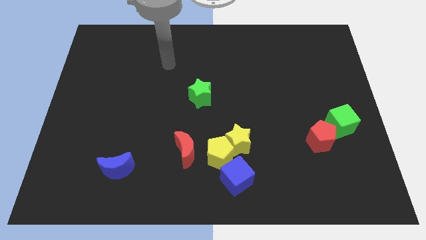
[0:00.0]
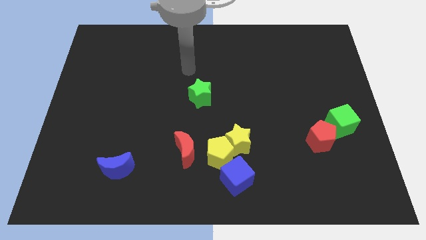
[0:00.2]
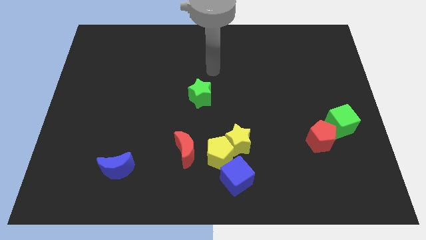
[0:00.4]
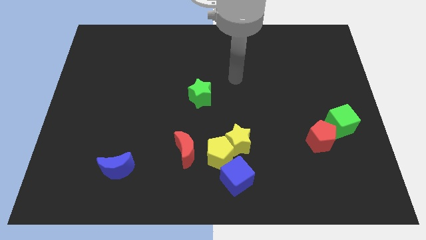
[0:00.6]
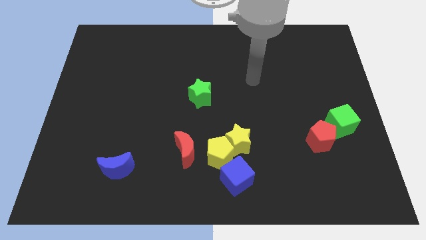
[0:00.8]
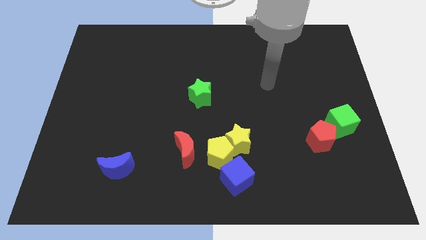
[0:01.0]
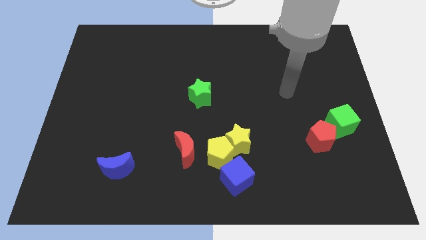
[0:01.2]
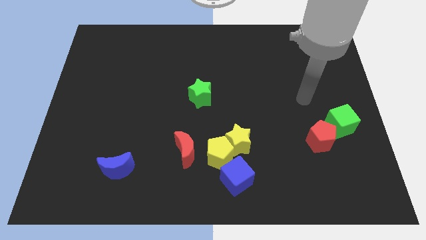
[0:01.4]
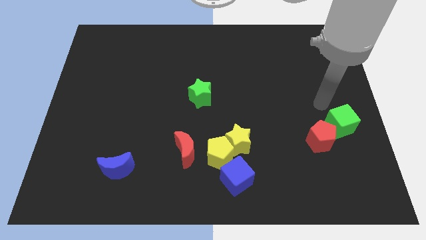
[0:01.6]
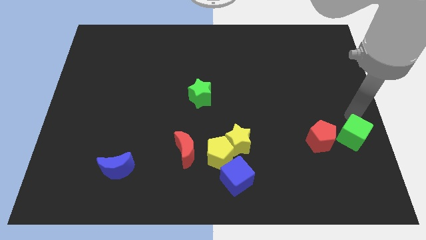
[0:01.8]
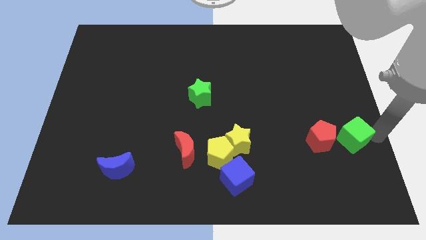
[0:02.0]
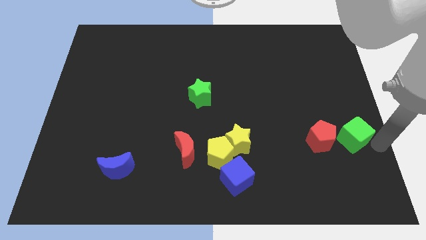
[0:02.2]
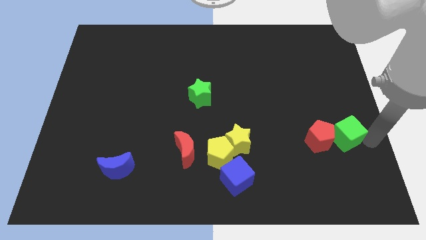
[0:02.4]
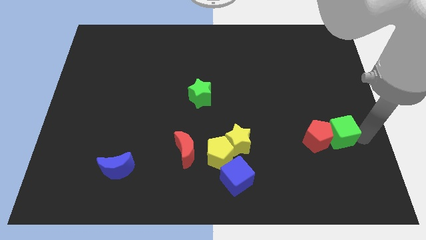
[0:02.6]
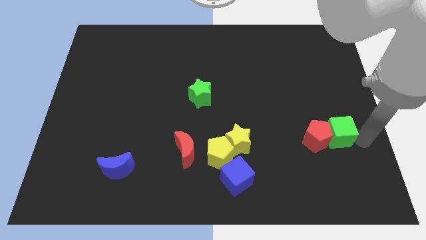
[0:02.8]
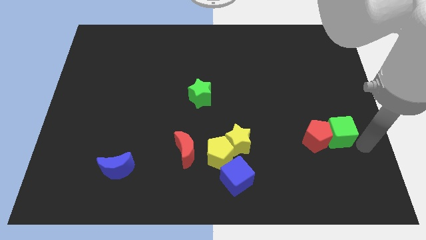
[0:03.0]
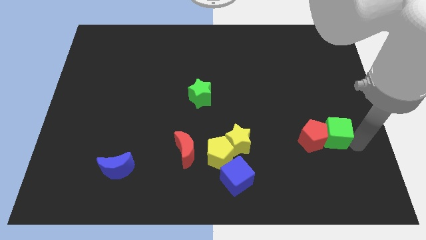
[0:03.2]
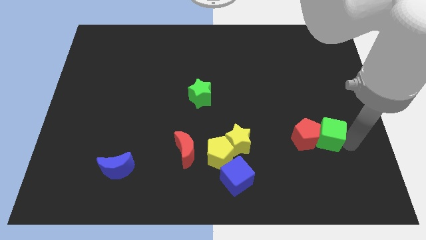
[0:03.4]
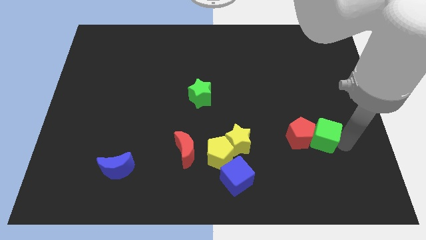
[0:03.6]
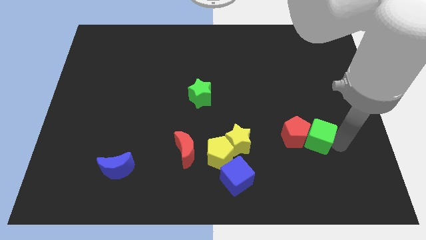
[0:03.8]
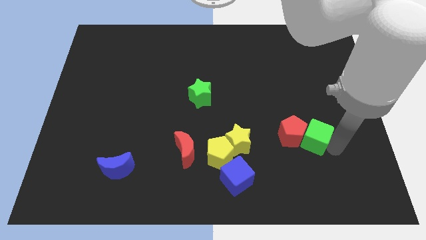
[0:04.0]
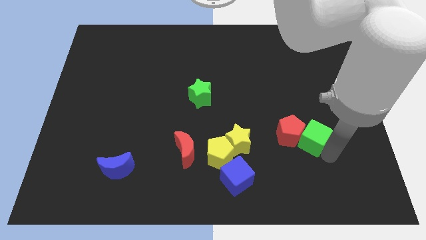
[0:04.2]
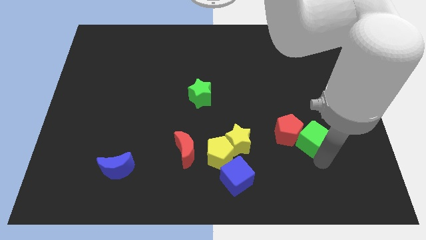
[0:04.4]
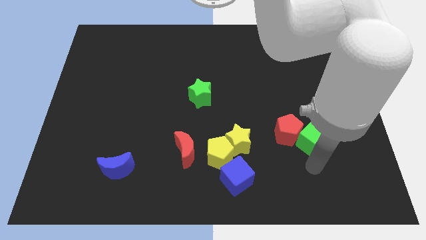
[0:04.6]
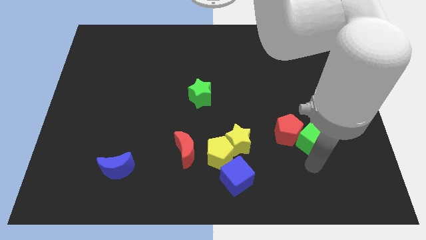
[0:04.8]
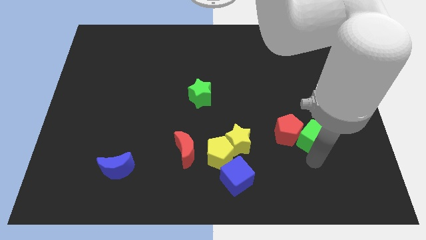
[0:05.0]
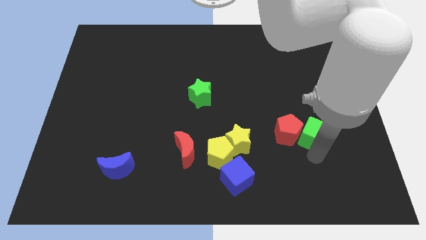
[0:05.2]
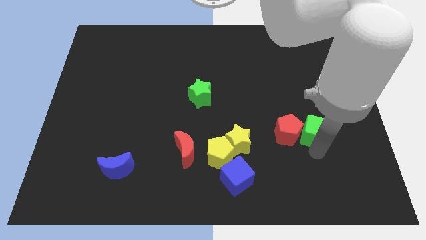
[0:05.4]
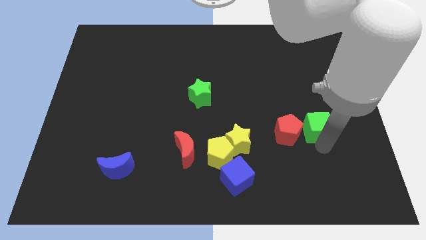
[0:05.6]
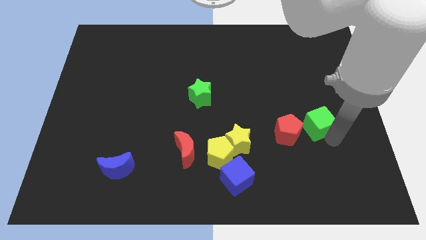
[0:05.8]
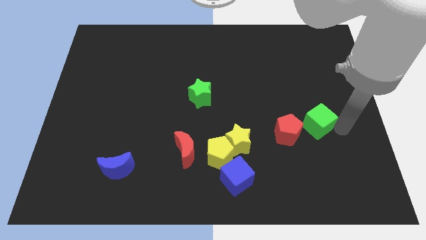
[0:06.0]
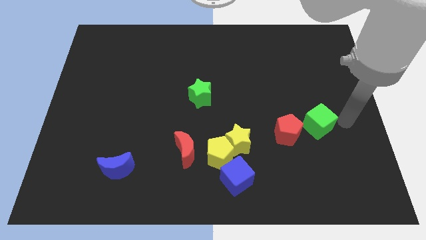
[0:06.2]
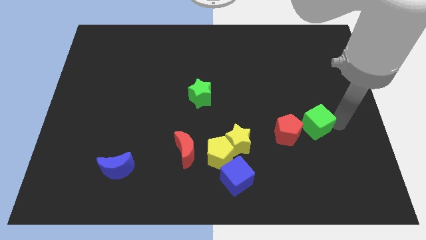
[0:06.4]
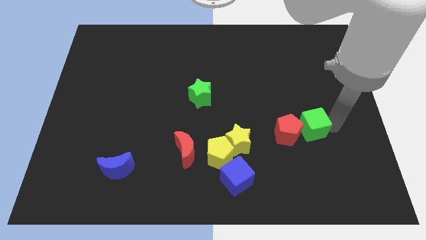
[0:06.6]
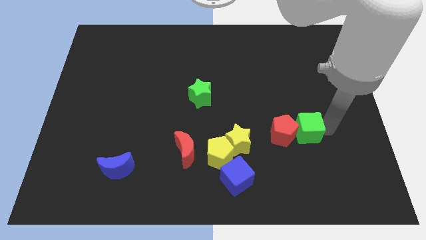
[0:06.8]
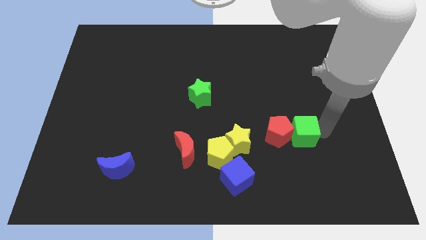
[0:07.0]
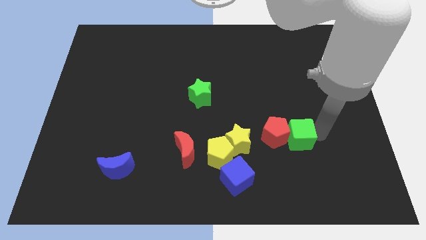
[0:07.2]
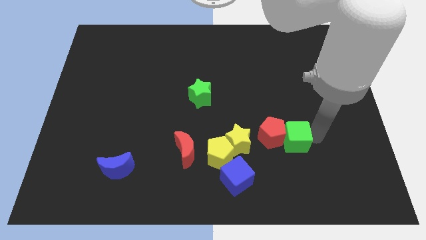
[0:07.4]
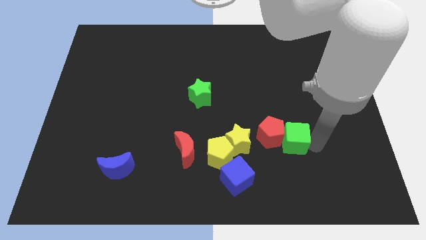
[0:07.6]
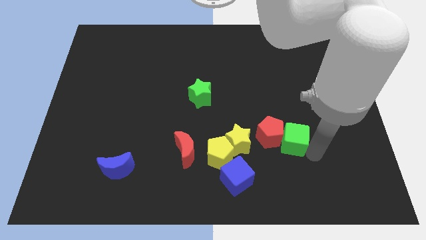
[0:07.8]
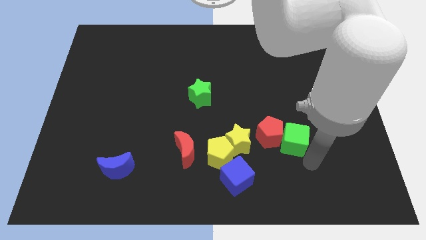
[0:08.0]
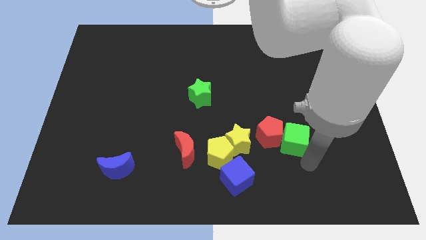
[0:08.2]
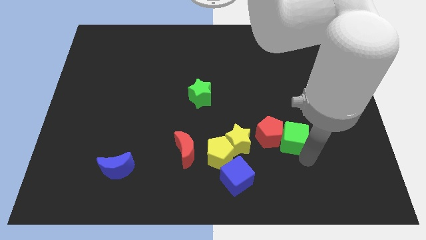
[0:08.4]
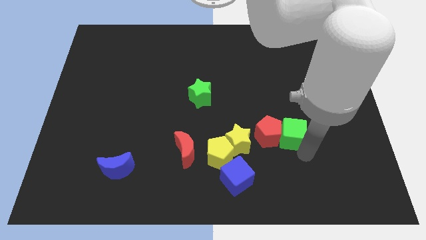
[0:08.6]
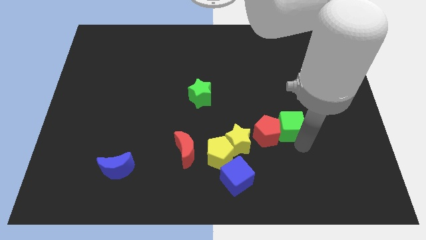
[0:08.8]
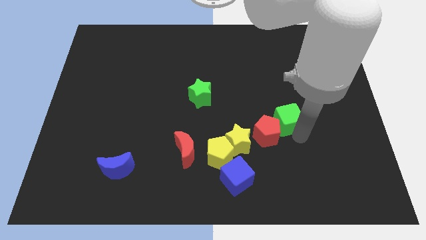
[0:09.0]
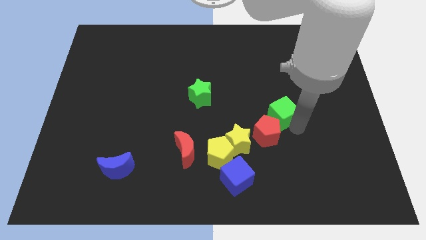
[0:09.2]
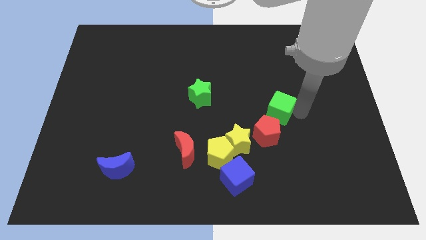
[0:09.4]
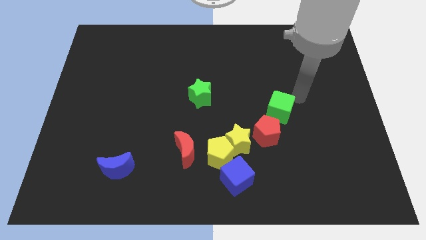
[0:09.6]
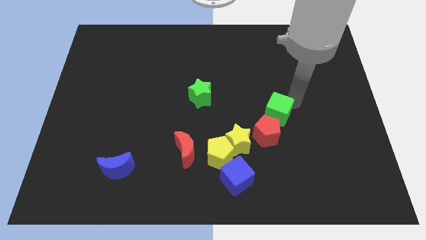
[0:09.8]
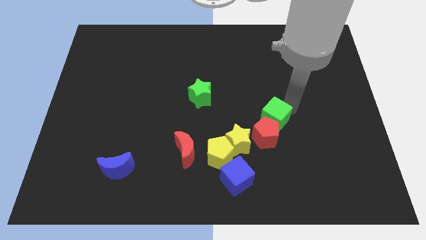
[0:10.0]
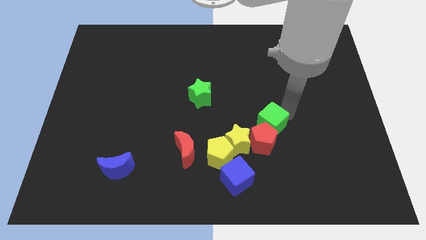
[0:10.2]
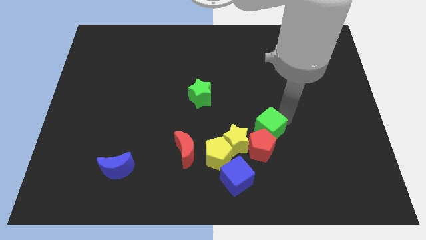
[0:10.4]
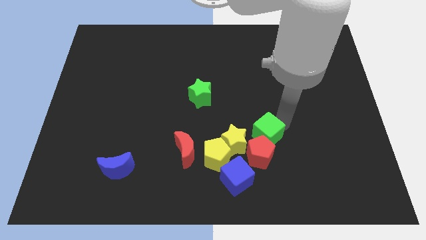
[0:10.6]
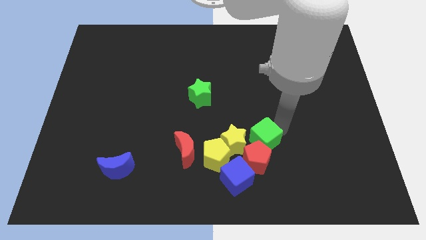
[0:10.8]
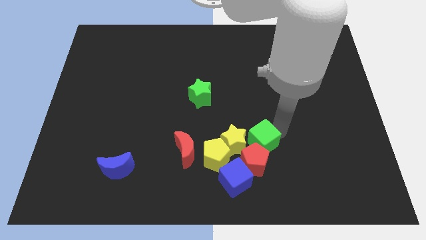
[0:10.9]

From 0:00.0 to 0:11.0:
put the green cube to the top right of the yellow pentagon

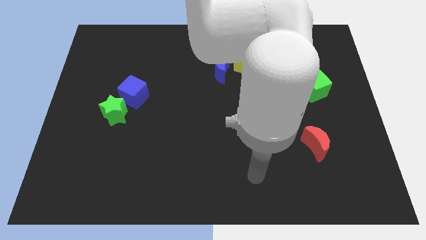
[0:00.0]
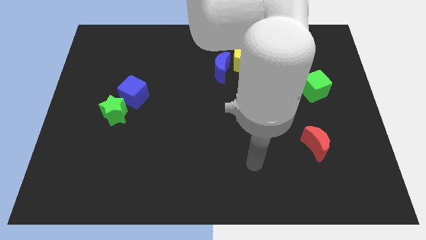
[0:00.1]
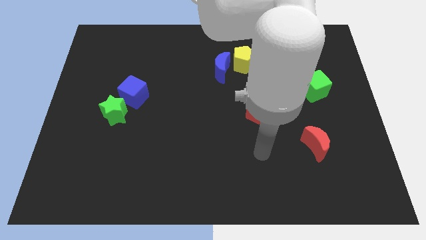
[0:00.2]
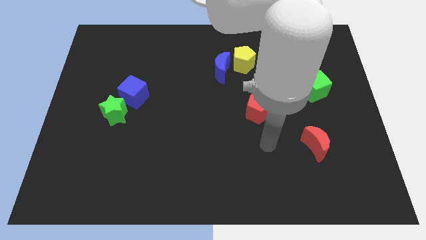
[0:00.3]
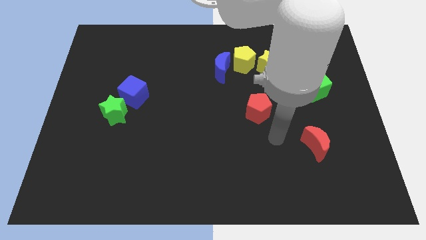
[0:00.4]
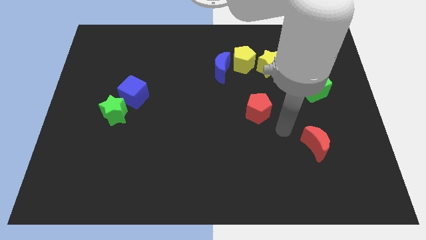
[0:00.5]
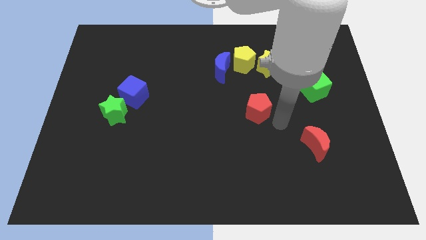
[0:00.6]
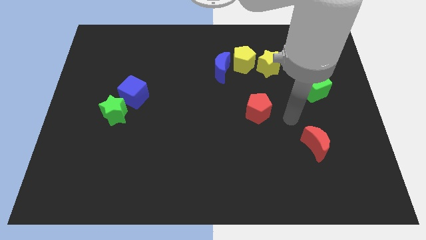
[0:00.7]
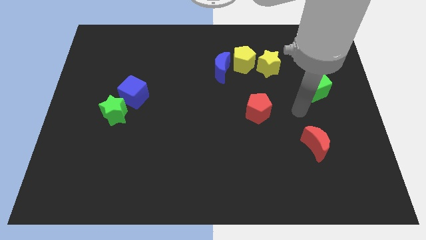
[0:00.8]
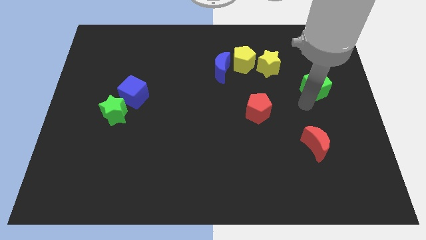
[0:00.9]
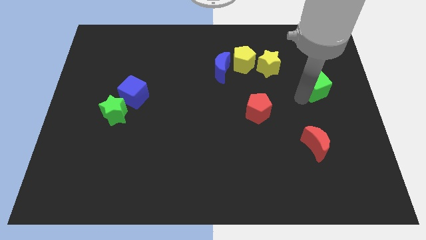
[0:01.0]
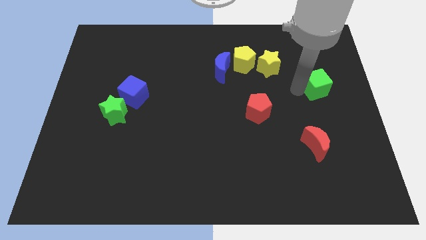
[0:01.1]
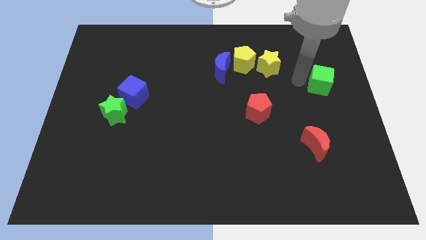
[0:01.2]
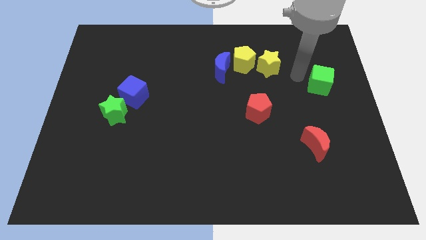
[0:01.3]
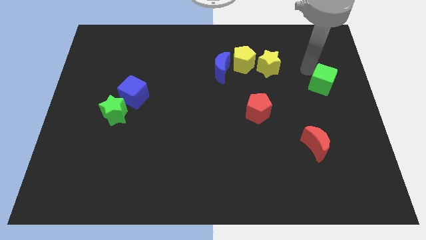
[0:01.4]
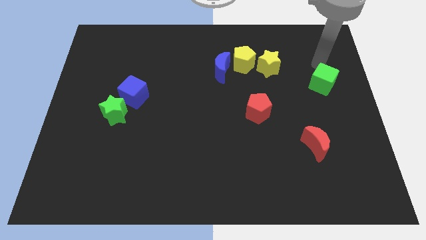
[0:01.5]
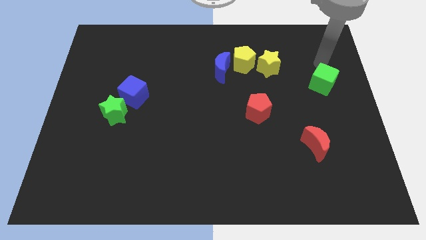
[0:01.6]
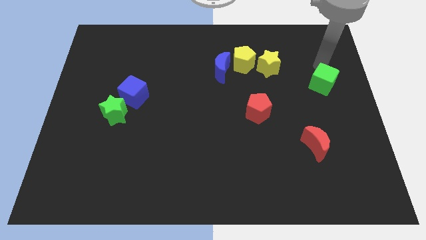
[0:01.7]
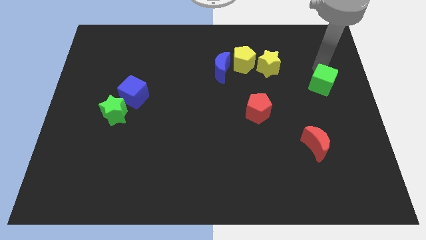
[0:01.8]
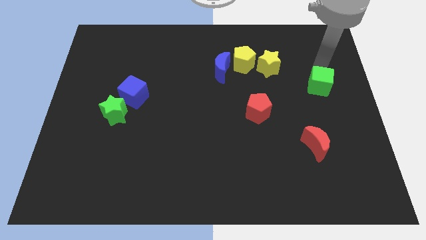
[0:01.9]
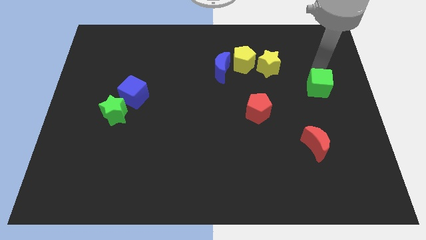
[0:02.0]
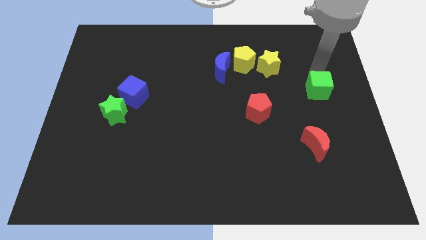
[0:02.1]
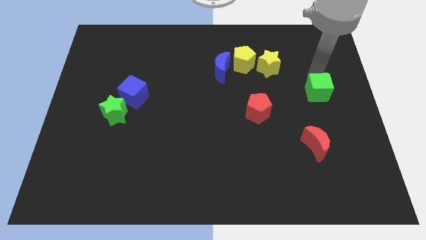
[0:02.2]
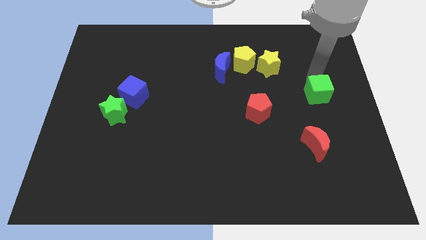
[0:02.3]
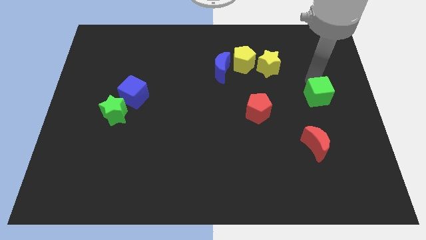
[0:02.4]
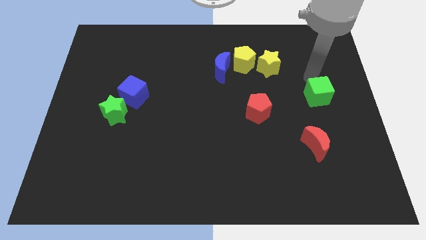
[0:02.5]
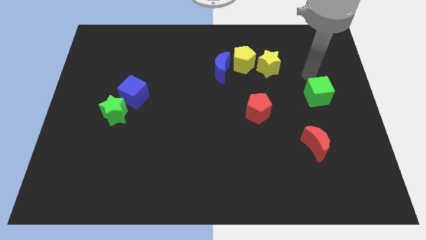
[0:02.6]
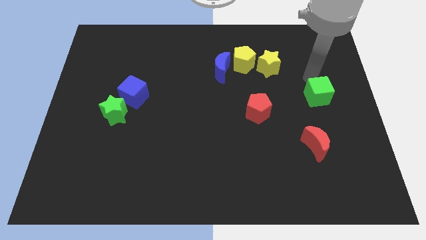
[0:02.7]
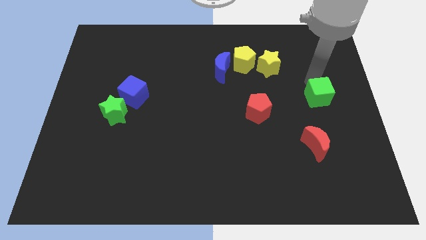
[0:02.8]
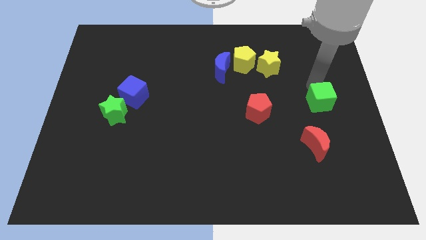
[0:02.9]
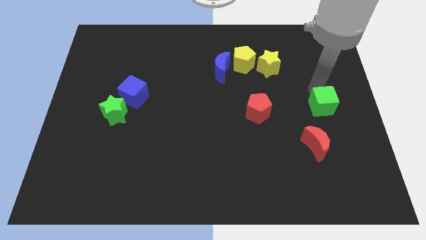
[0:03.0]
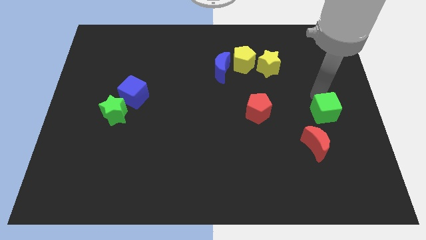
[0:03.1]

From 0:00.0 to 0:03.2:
push the green cube to the top right of the red moon
